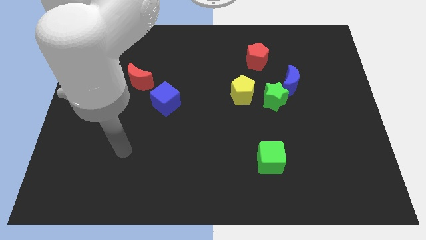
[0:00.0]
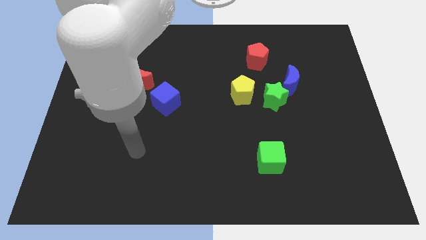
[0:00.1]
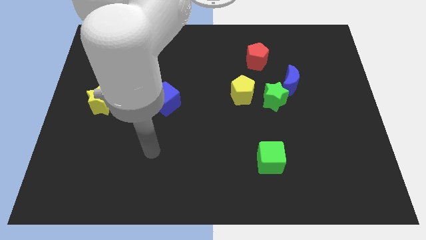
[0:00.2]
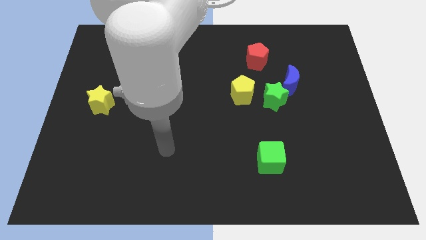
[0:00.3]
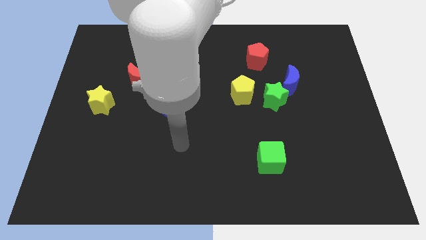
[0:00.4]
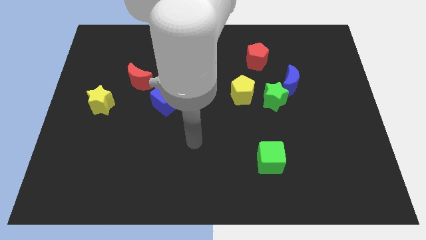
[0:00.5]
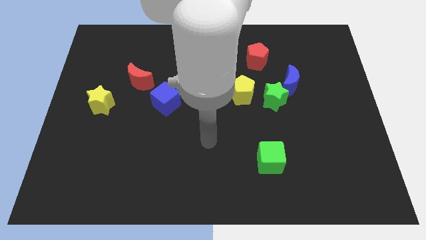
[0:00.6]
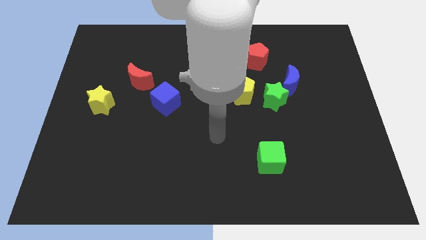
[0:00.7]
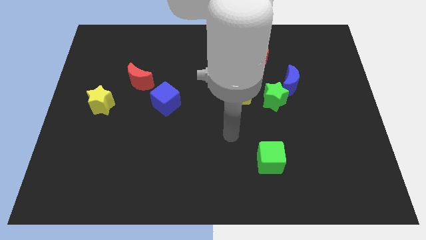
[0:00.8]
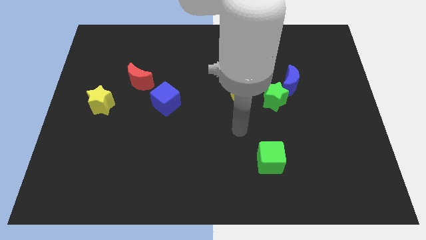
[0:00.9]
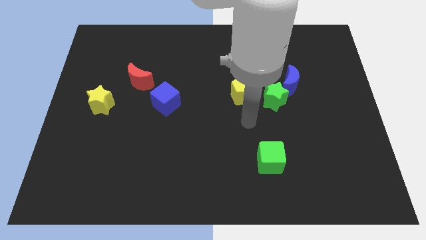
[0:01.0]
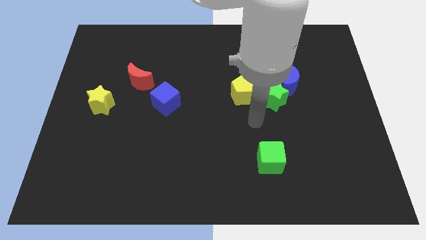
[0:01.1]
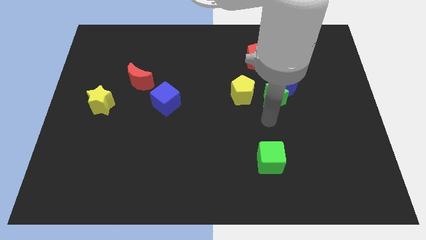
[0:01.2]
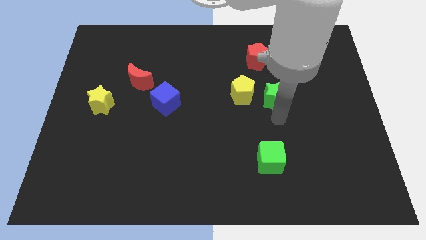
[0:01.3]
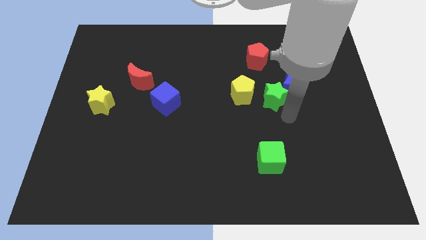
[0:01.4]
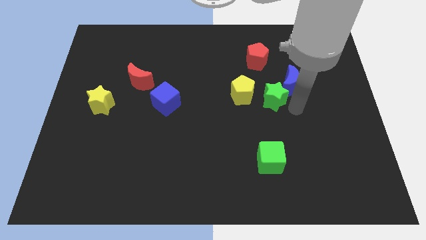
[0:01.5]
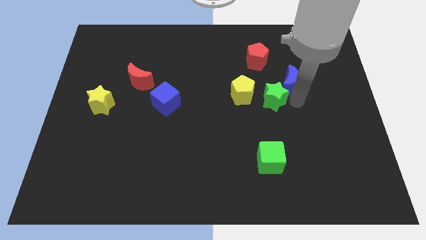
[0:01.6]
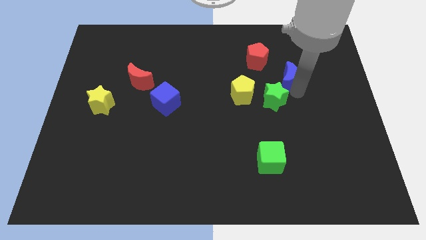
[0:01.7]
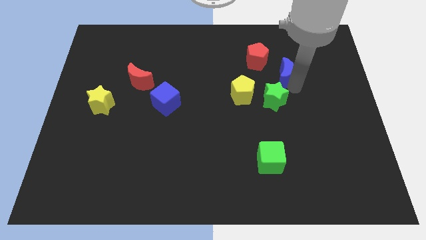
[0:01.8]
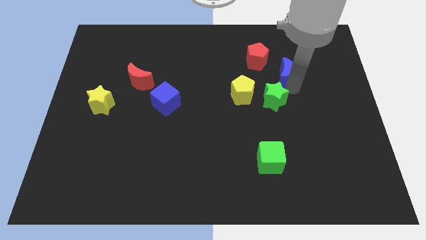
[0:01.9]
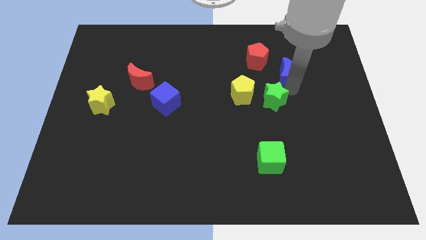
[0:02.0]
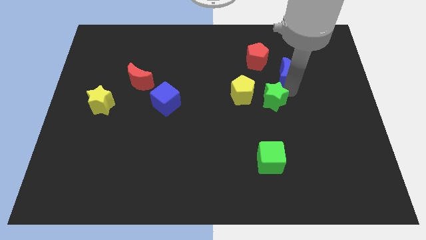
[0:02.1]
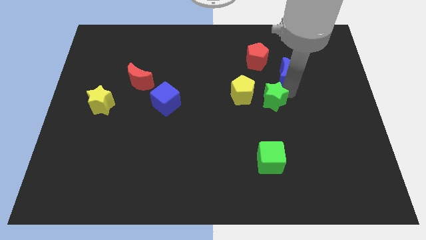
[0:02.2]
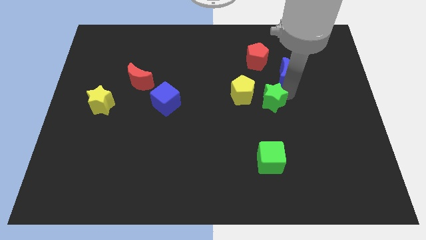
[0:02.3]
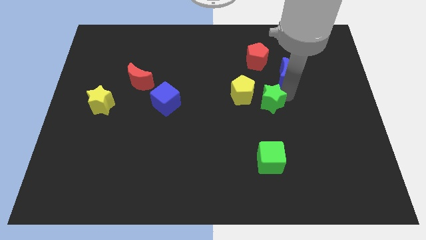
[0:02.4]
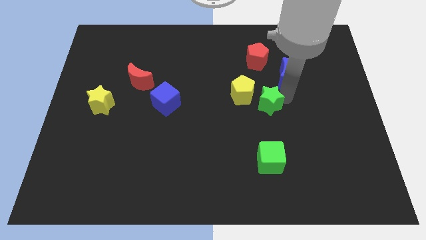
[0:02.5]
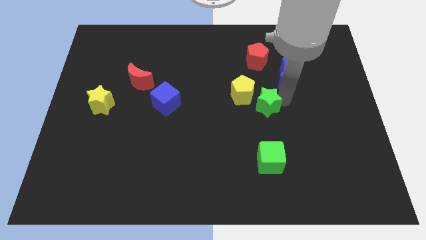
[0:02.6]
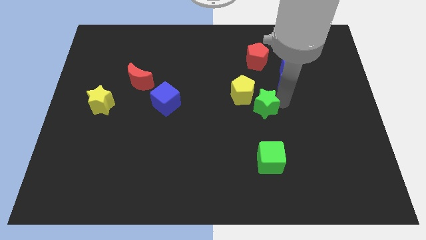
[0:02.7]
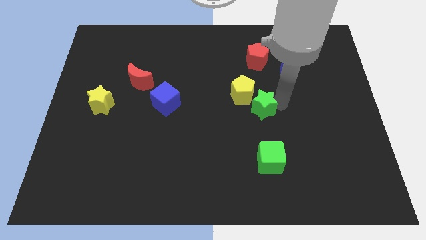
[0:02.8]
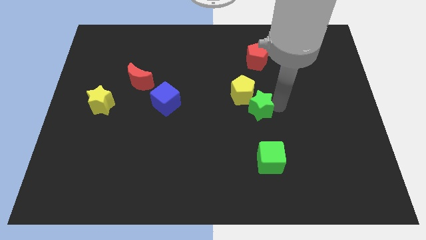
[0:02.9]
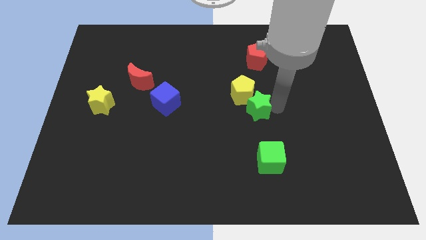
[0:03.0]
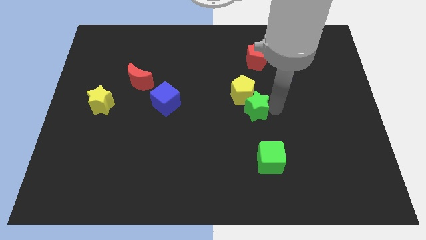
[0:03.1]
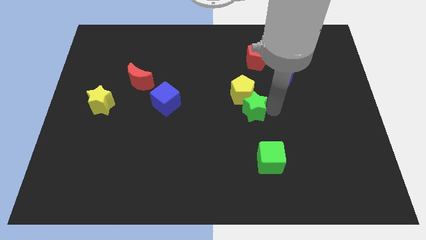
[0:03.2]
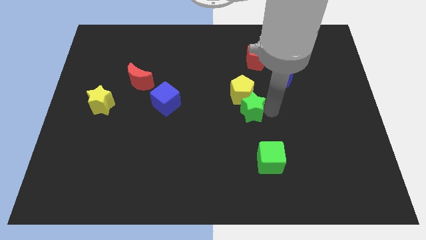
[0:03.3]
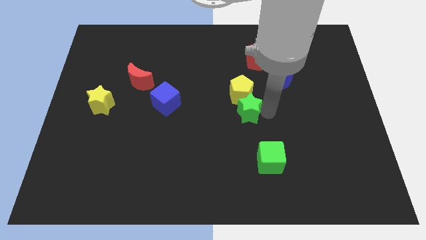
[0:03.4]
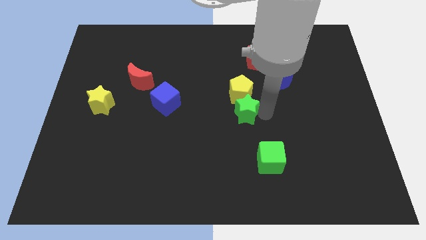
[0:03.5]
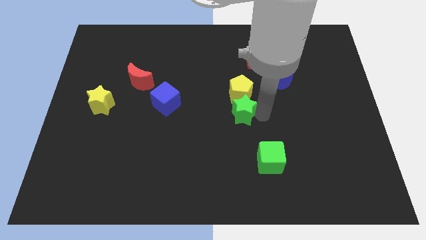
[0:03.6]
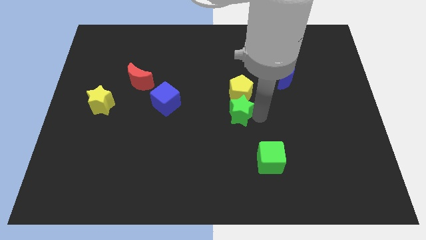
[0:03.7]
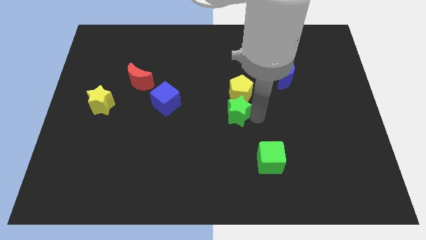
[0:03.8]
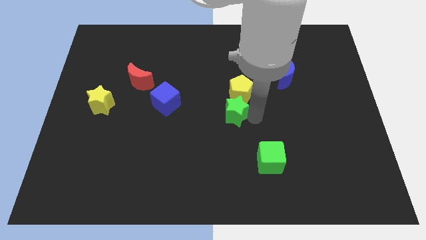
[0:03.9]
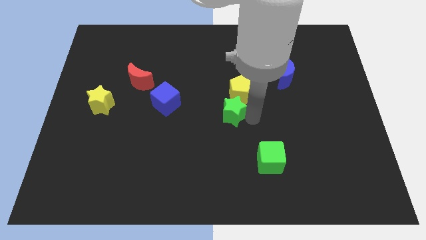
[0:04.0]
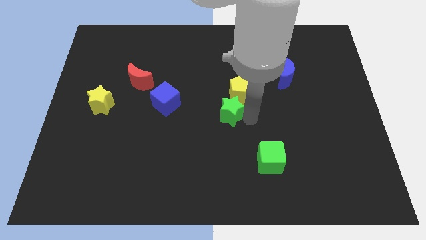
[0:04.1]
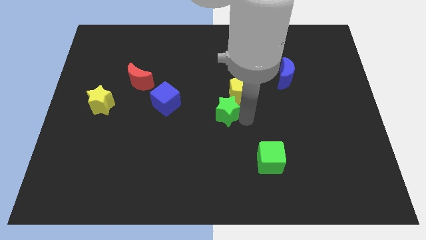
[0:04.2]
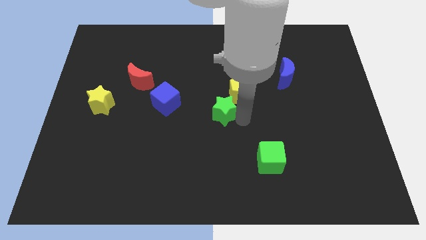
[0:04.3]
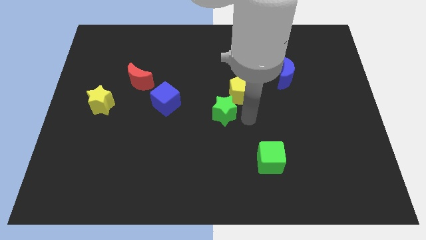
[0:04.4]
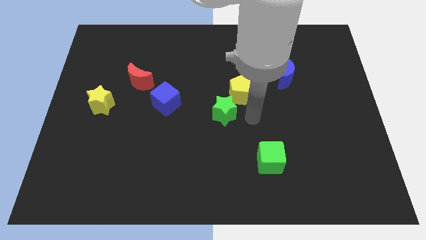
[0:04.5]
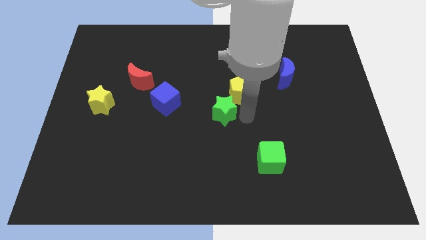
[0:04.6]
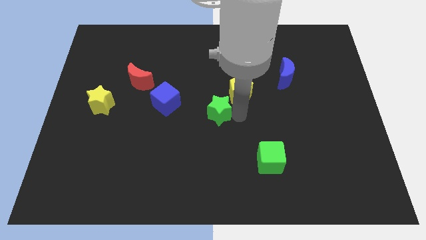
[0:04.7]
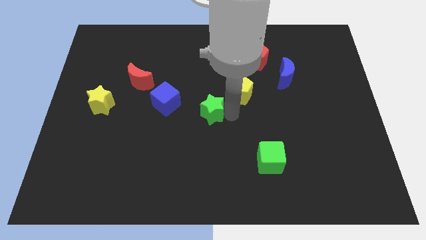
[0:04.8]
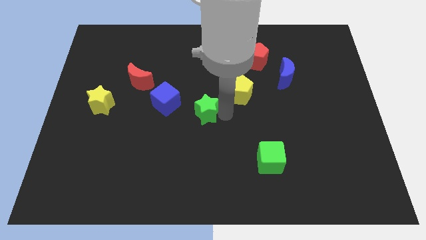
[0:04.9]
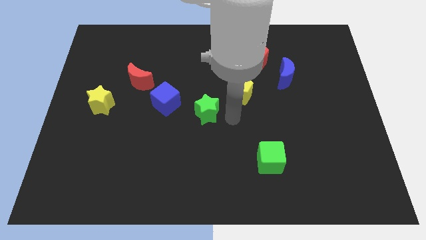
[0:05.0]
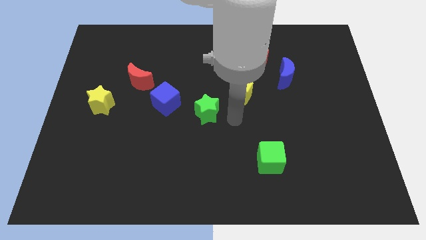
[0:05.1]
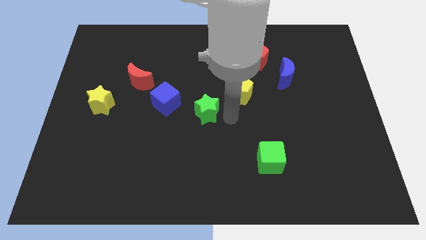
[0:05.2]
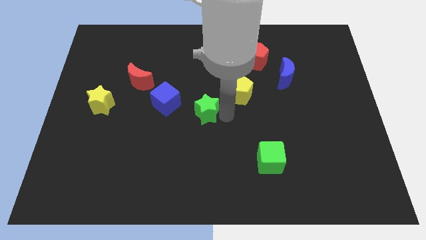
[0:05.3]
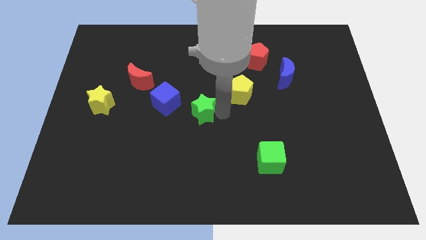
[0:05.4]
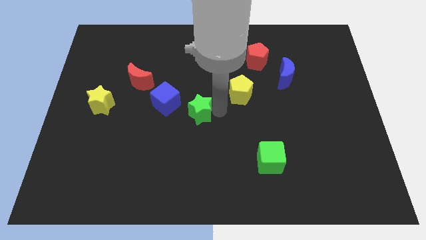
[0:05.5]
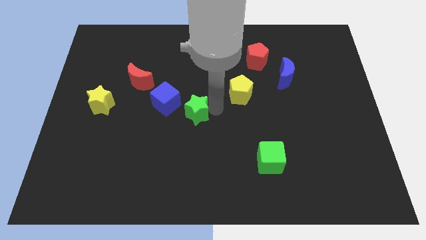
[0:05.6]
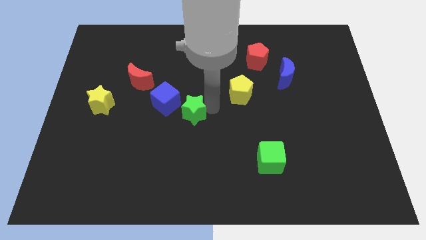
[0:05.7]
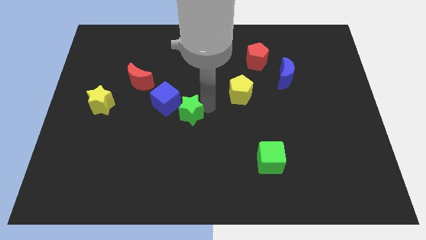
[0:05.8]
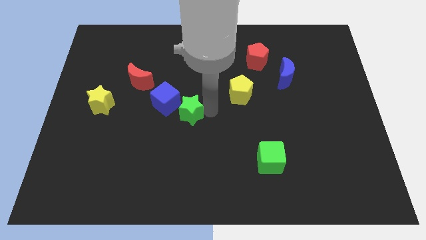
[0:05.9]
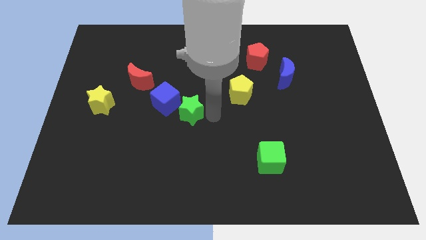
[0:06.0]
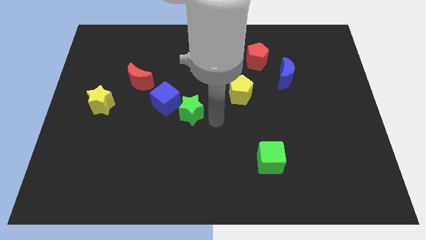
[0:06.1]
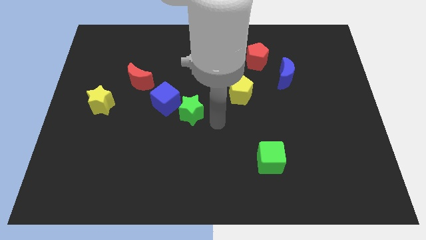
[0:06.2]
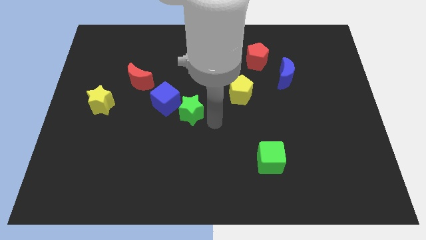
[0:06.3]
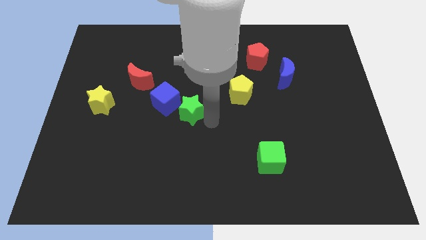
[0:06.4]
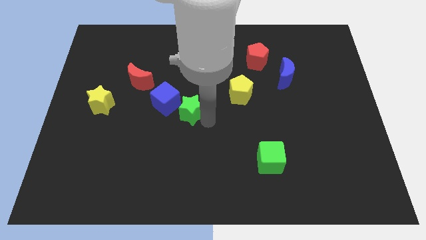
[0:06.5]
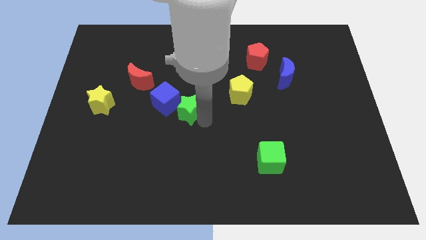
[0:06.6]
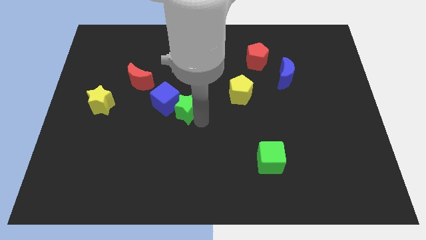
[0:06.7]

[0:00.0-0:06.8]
slide the green star to the blue cube

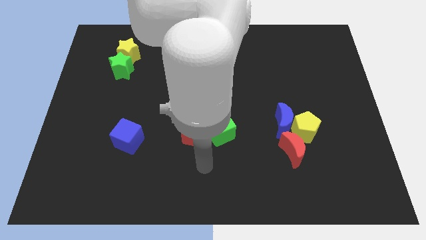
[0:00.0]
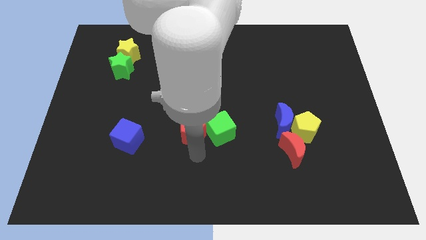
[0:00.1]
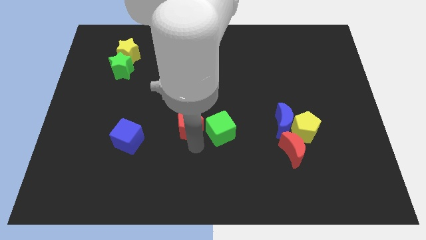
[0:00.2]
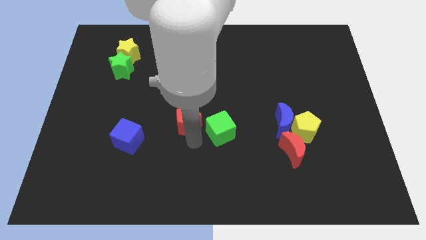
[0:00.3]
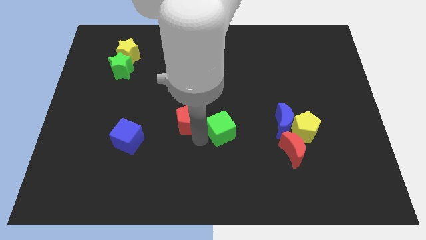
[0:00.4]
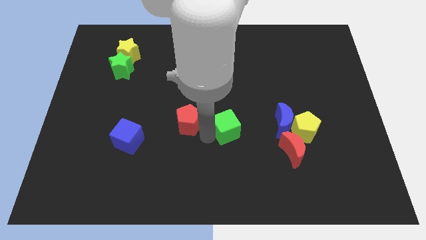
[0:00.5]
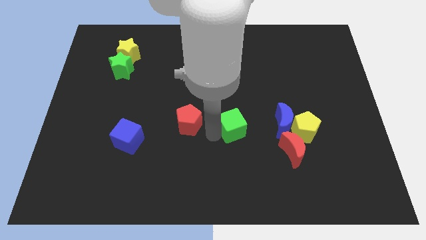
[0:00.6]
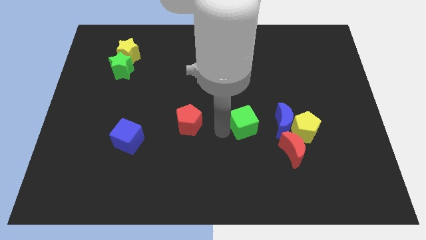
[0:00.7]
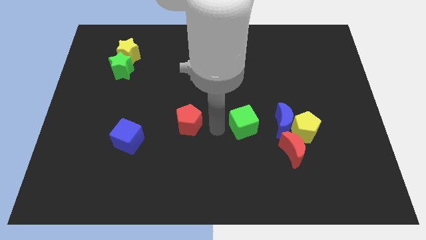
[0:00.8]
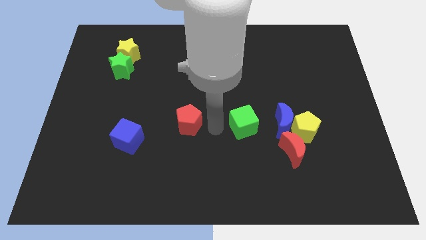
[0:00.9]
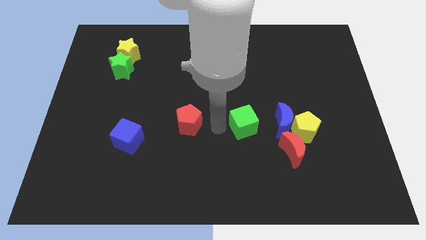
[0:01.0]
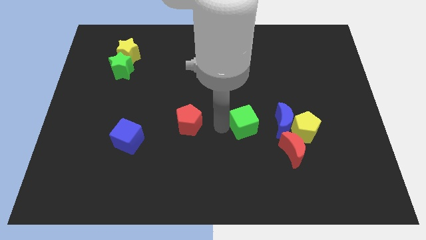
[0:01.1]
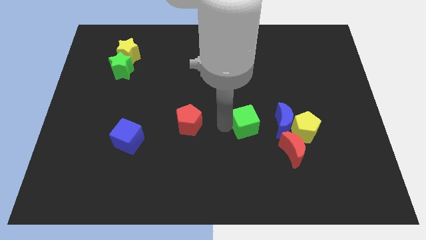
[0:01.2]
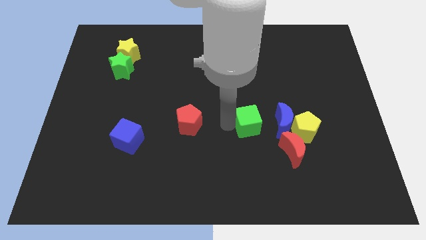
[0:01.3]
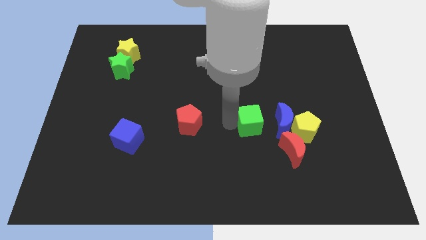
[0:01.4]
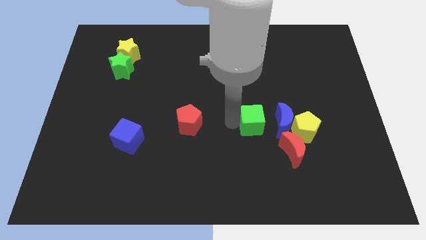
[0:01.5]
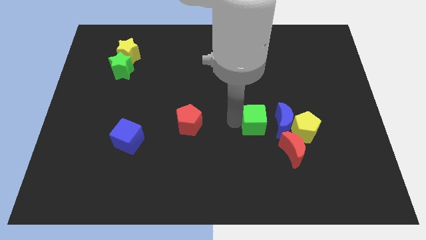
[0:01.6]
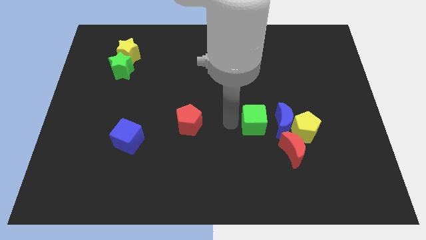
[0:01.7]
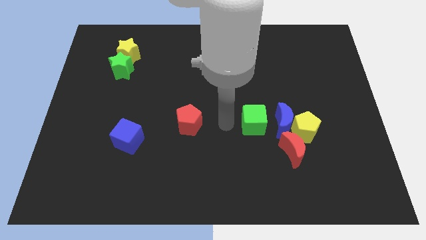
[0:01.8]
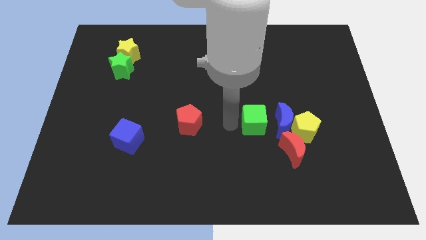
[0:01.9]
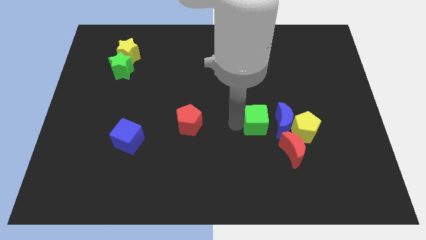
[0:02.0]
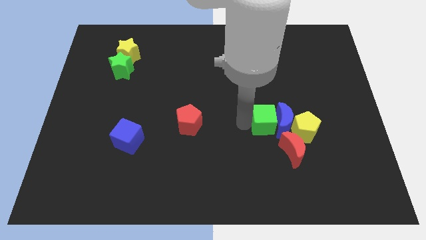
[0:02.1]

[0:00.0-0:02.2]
move the green cube close to the blue moon
